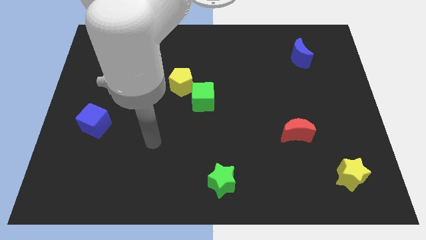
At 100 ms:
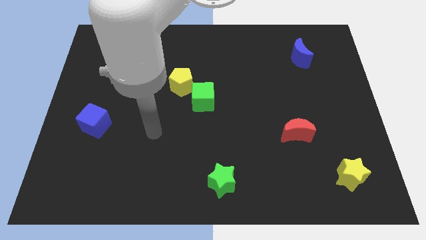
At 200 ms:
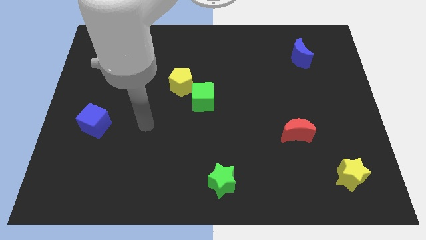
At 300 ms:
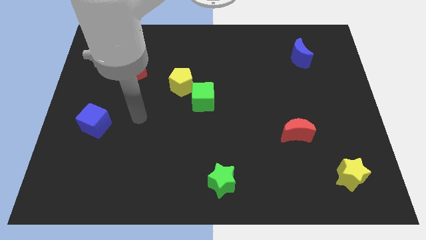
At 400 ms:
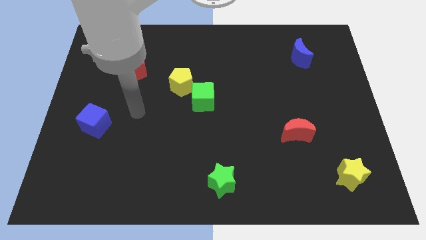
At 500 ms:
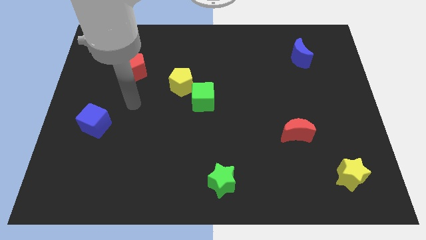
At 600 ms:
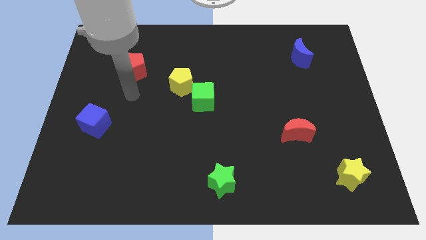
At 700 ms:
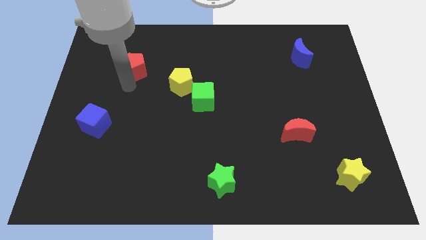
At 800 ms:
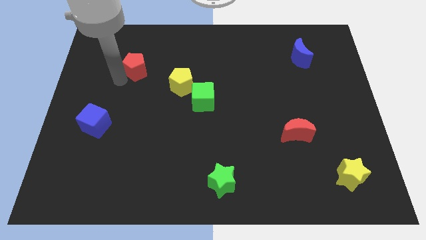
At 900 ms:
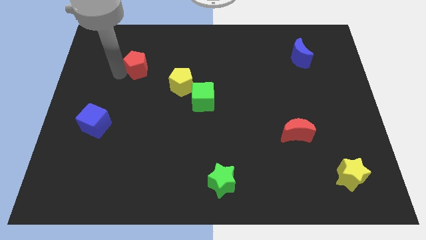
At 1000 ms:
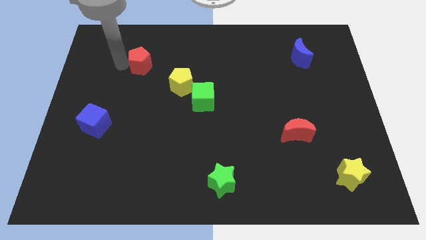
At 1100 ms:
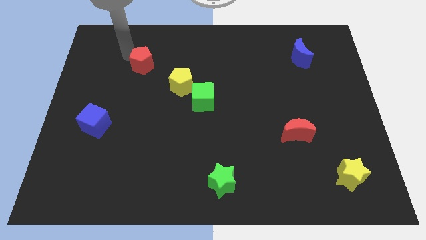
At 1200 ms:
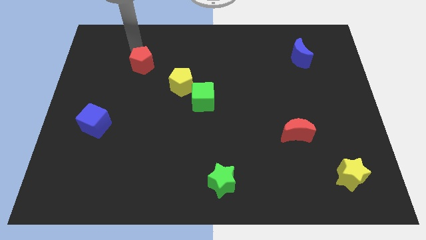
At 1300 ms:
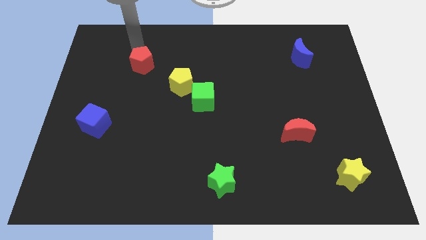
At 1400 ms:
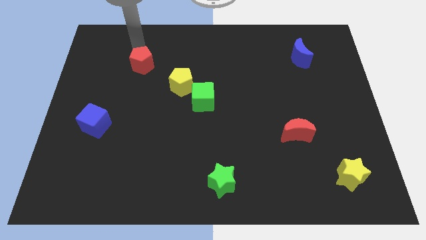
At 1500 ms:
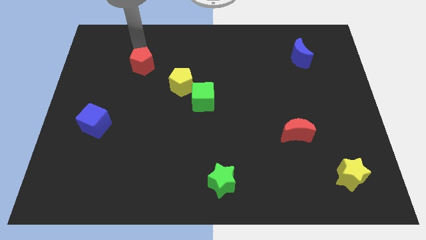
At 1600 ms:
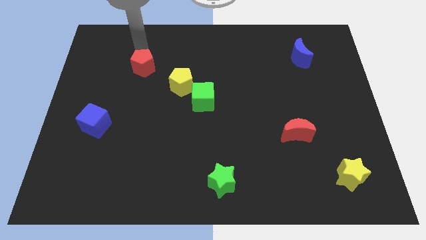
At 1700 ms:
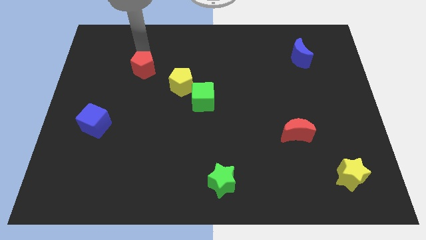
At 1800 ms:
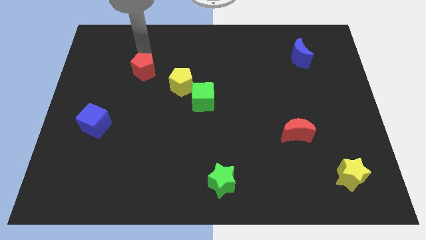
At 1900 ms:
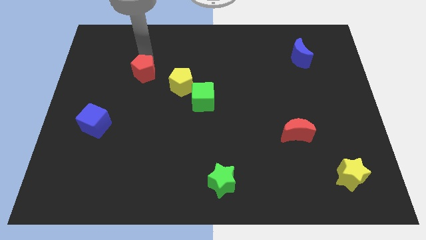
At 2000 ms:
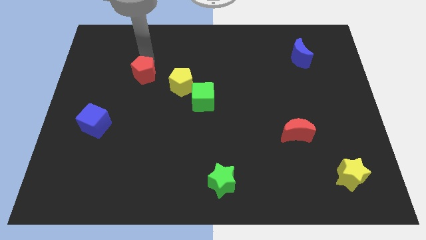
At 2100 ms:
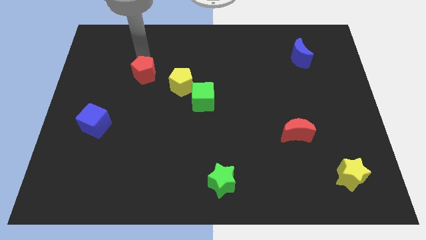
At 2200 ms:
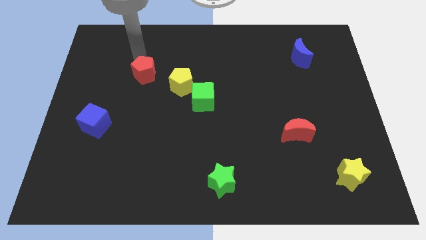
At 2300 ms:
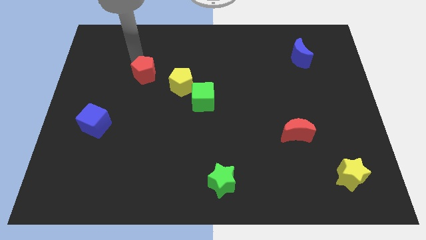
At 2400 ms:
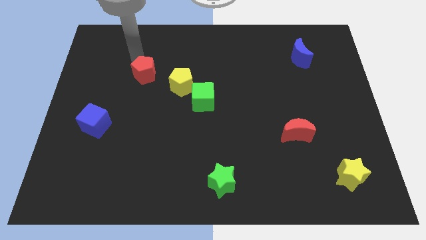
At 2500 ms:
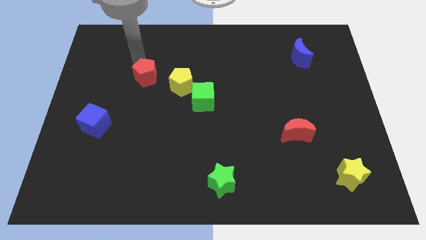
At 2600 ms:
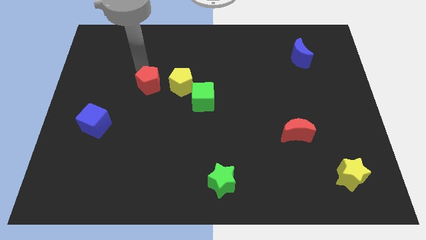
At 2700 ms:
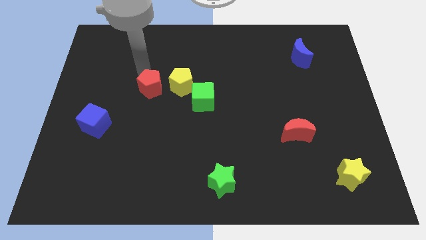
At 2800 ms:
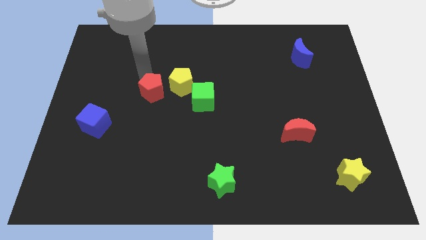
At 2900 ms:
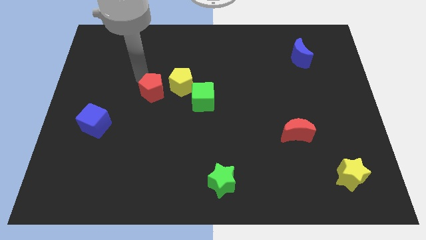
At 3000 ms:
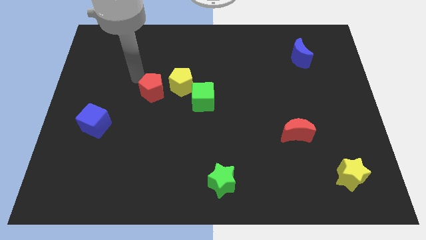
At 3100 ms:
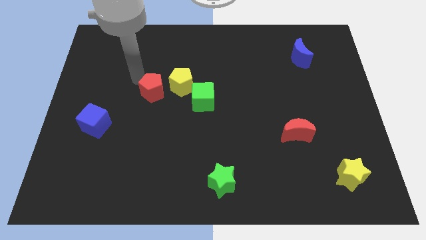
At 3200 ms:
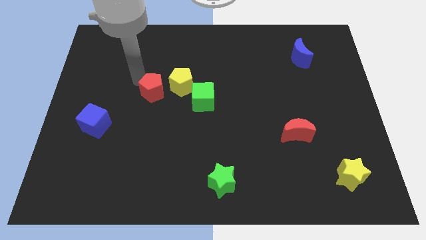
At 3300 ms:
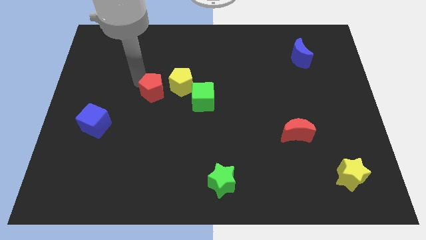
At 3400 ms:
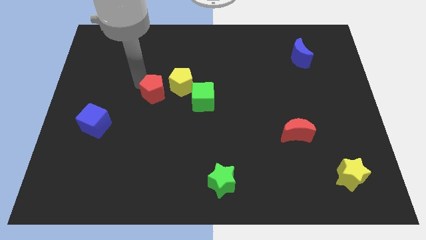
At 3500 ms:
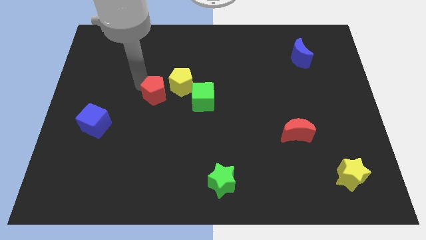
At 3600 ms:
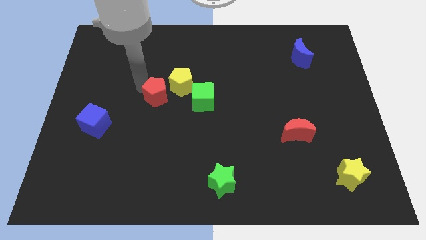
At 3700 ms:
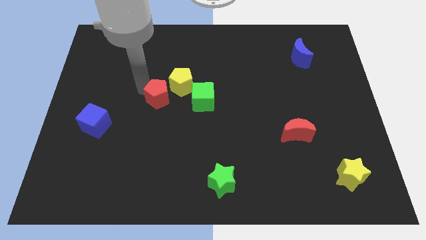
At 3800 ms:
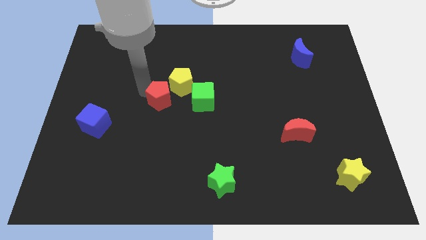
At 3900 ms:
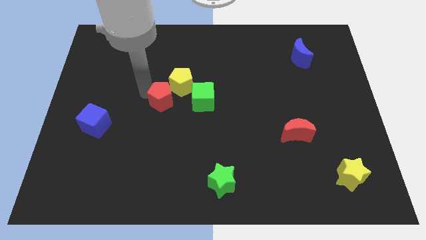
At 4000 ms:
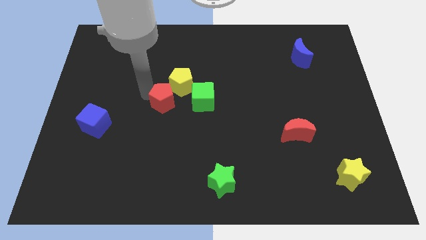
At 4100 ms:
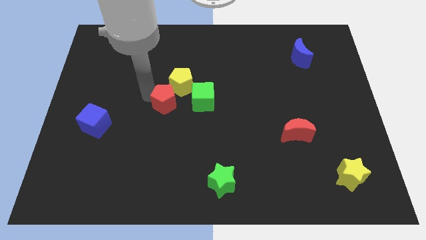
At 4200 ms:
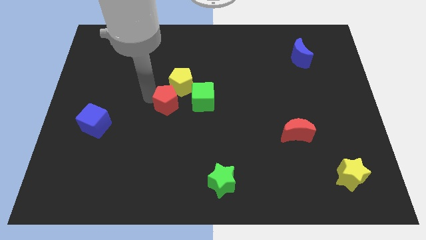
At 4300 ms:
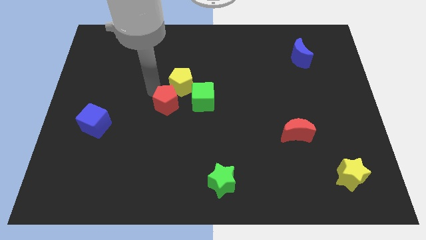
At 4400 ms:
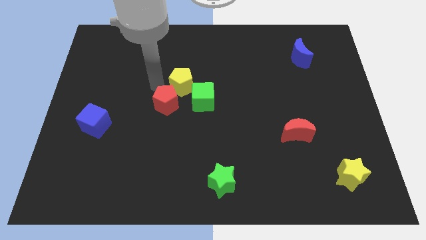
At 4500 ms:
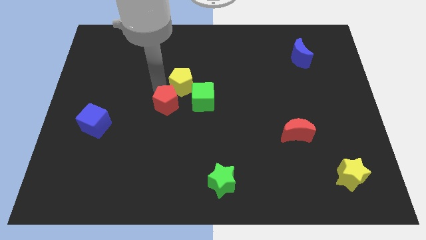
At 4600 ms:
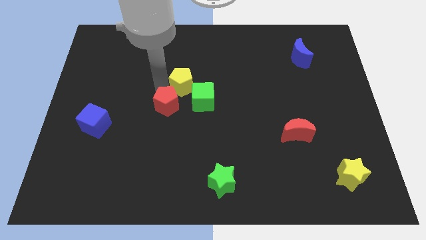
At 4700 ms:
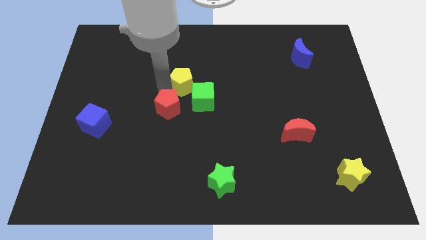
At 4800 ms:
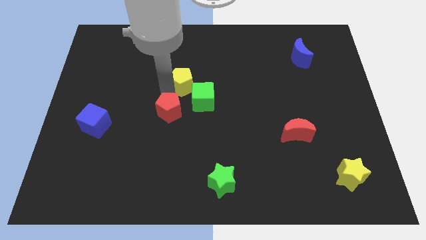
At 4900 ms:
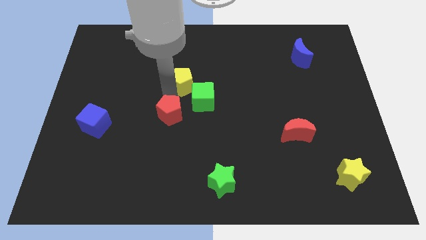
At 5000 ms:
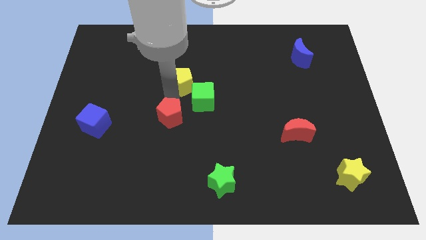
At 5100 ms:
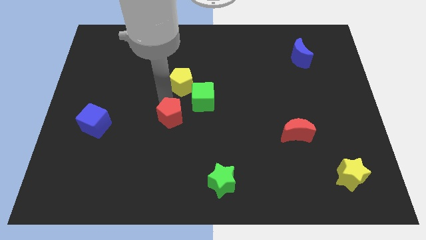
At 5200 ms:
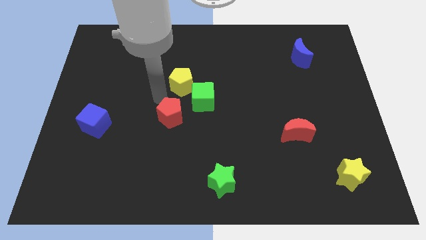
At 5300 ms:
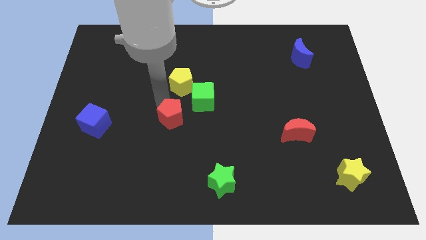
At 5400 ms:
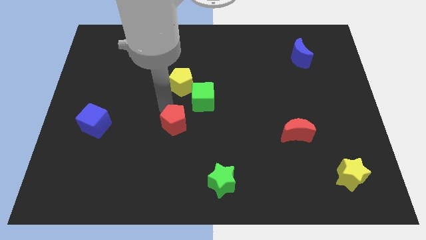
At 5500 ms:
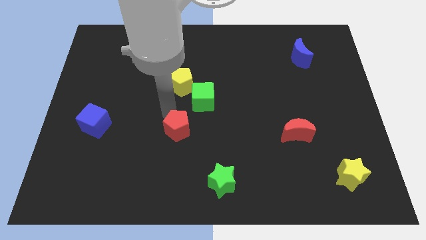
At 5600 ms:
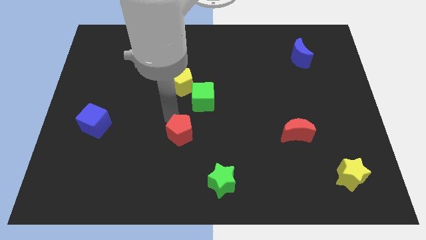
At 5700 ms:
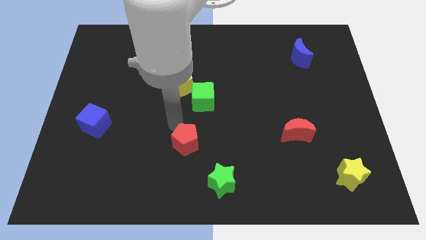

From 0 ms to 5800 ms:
put the red pentagon diagonally up and to the left of the green star

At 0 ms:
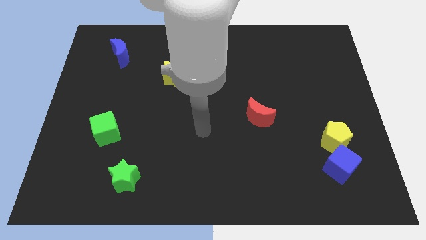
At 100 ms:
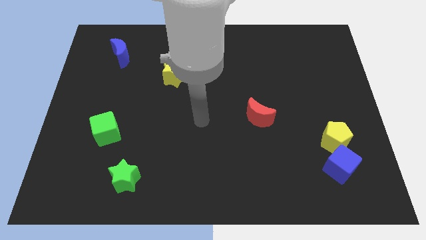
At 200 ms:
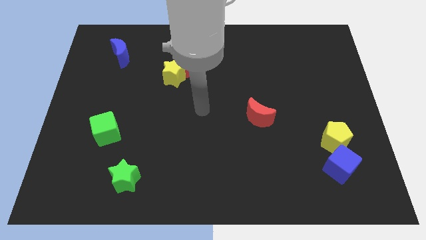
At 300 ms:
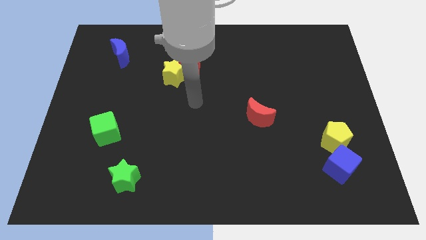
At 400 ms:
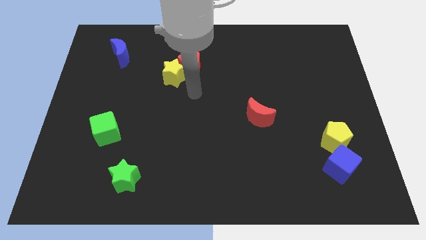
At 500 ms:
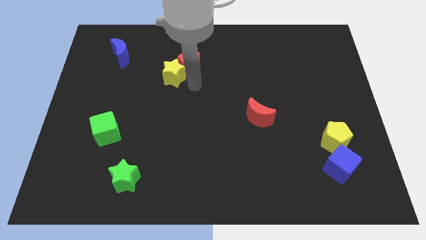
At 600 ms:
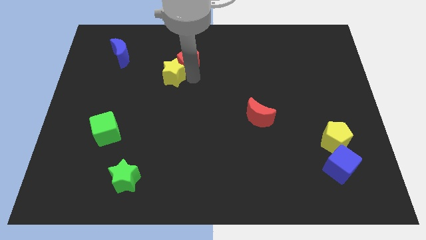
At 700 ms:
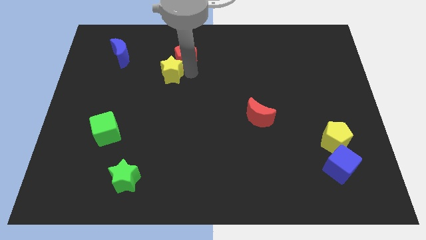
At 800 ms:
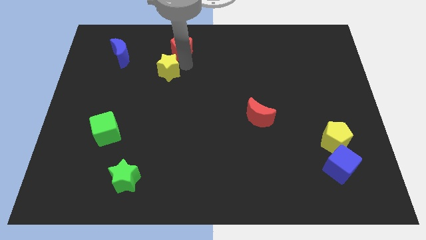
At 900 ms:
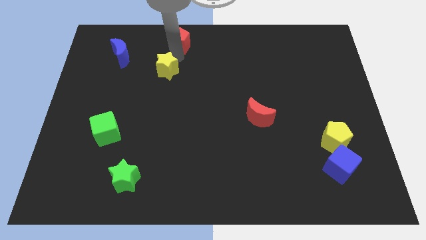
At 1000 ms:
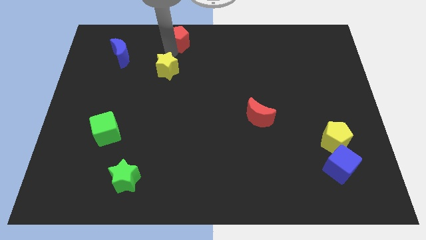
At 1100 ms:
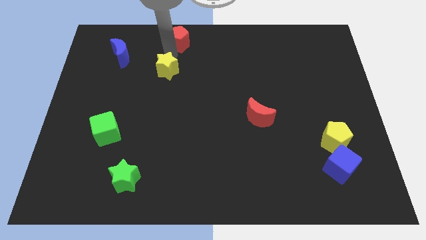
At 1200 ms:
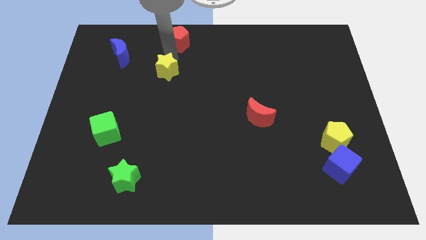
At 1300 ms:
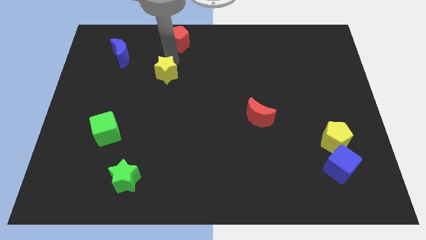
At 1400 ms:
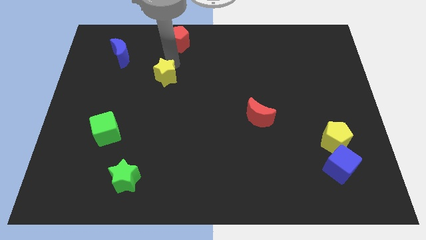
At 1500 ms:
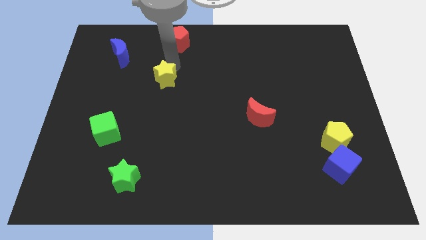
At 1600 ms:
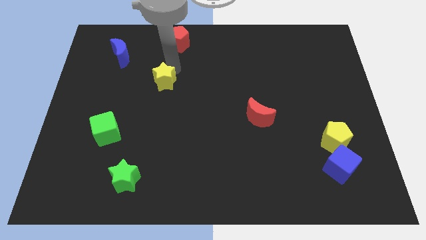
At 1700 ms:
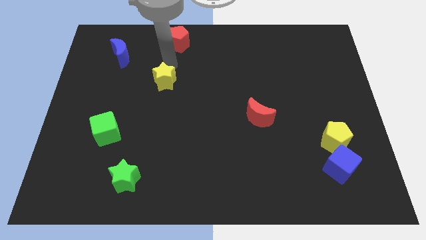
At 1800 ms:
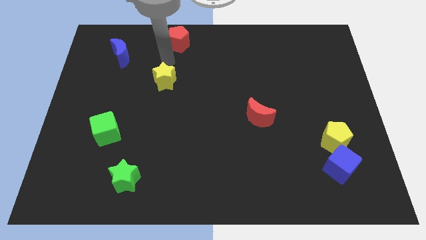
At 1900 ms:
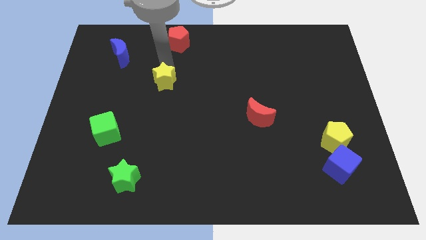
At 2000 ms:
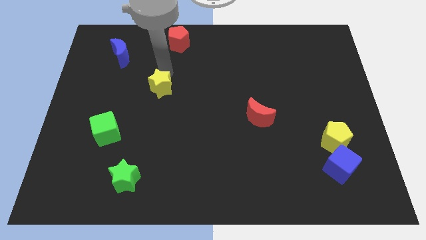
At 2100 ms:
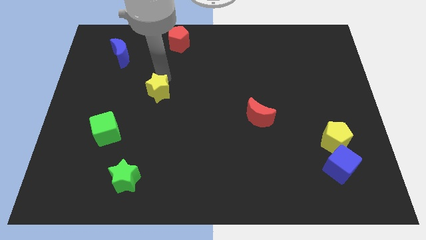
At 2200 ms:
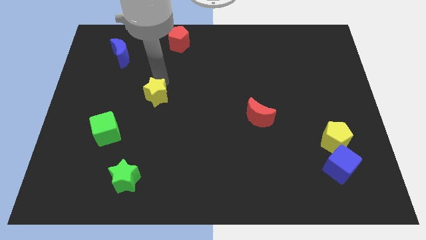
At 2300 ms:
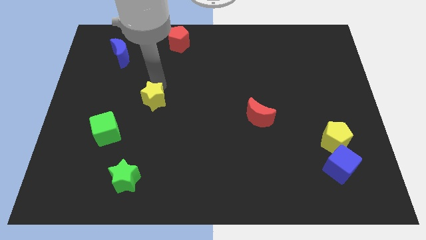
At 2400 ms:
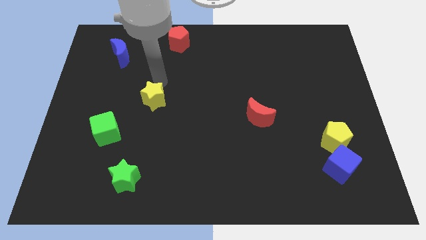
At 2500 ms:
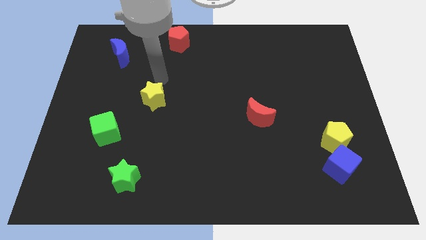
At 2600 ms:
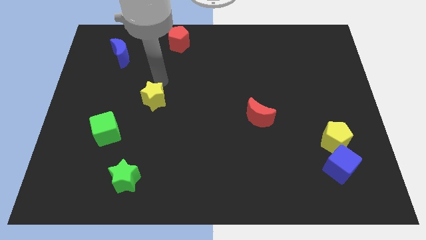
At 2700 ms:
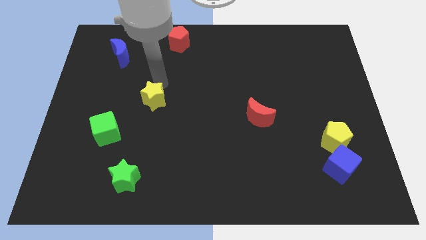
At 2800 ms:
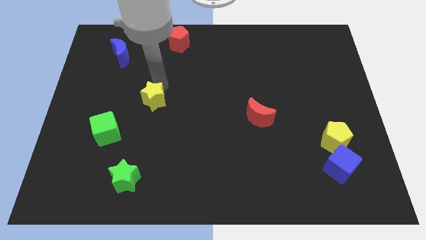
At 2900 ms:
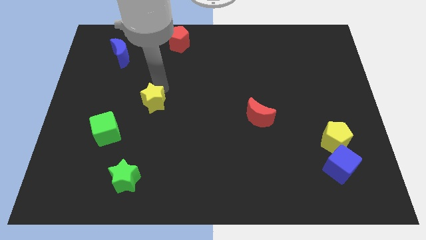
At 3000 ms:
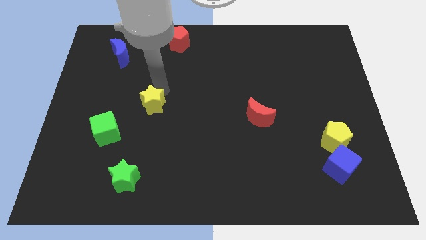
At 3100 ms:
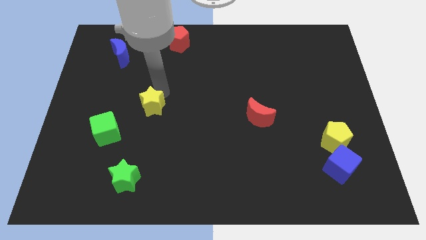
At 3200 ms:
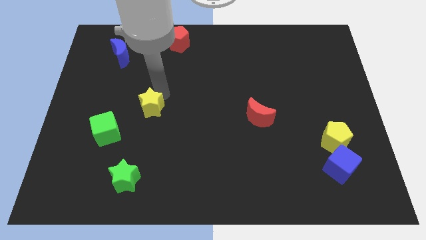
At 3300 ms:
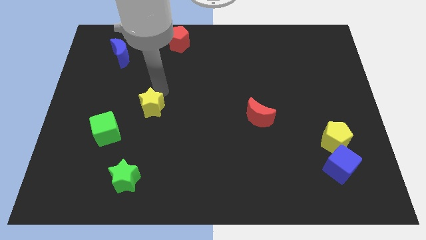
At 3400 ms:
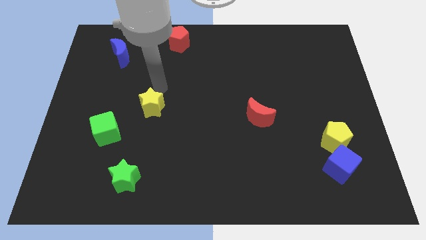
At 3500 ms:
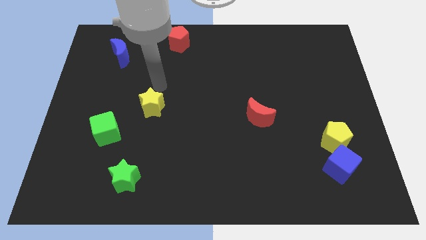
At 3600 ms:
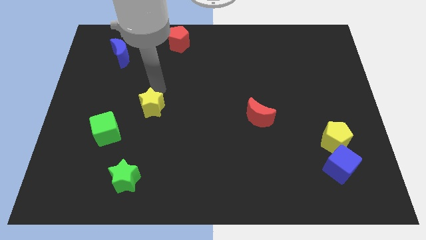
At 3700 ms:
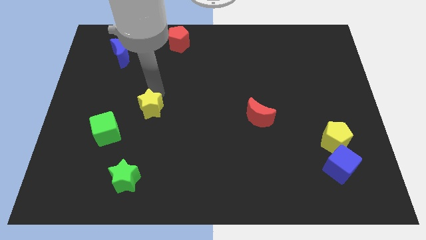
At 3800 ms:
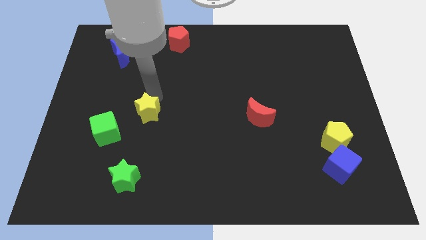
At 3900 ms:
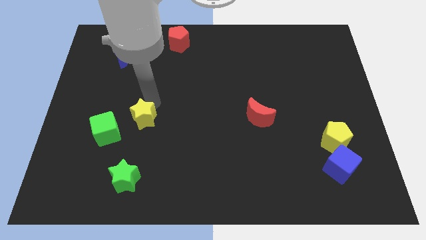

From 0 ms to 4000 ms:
put the yellow star to the top of the green star
